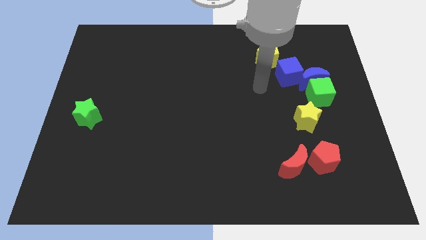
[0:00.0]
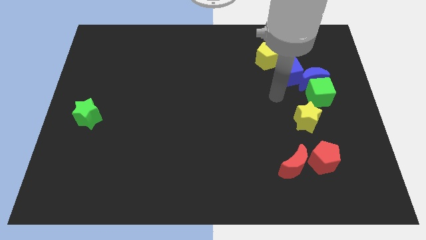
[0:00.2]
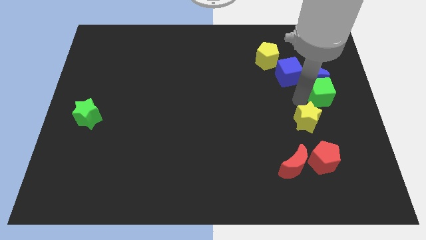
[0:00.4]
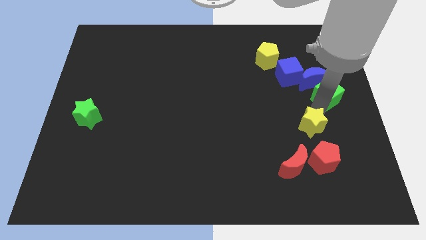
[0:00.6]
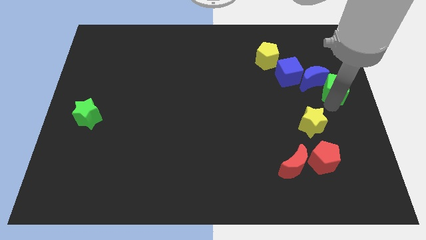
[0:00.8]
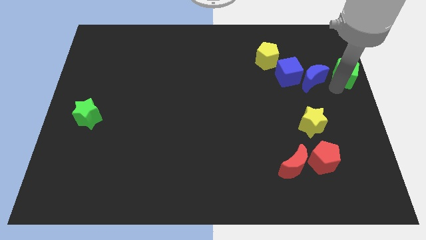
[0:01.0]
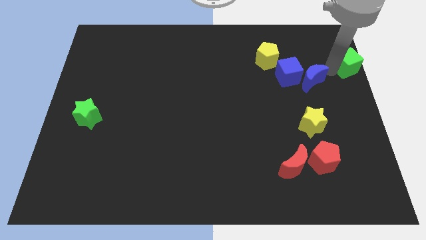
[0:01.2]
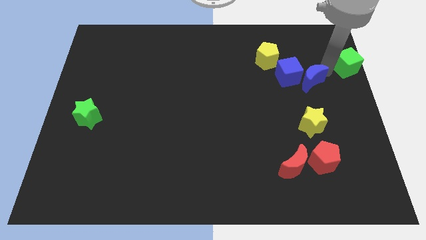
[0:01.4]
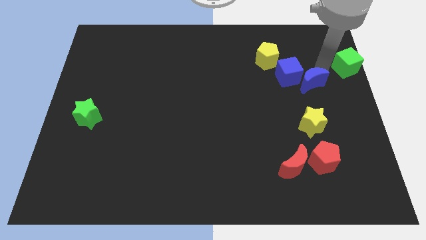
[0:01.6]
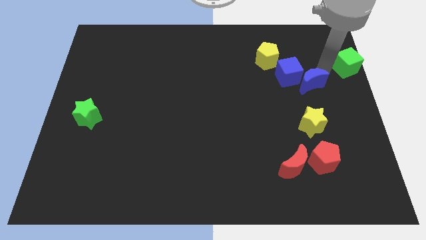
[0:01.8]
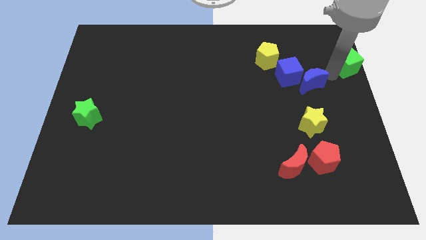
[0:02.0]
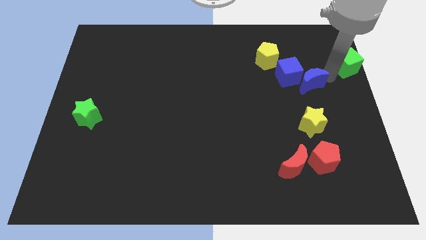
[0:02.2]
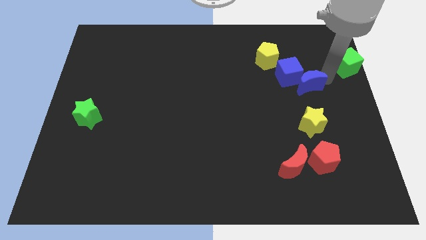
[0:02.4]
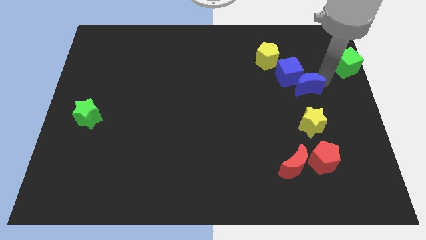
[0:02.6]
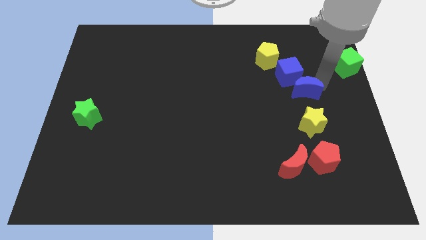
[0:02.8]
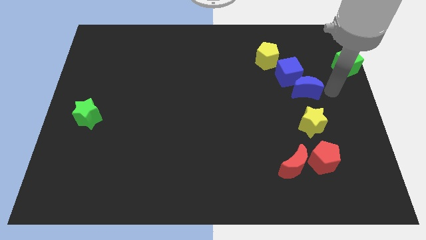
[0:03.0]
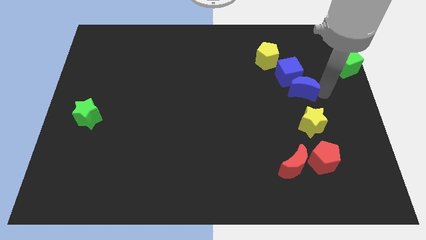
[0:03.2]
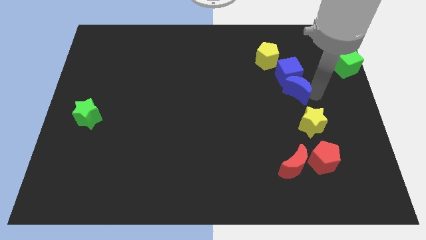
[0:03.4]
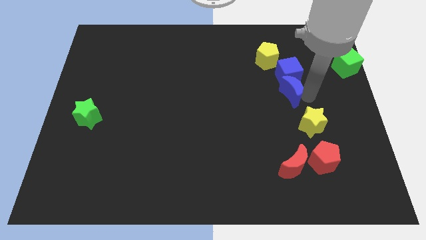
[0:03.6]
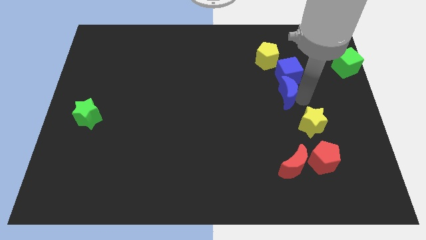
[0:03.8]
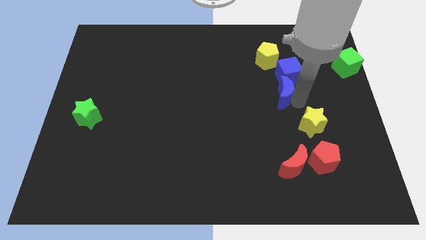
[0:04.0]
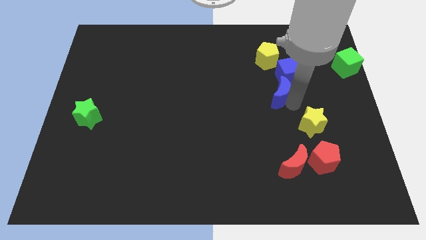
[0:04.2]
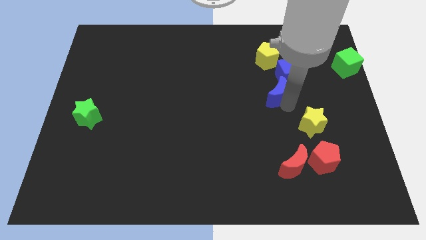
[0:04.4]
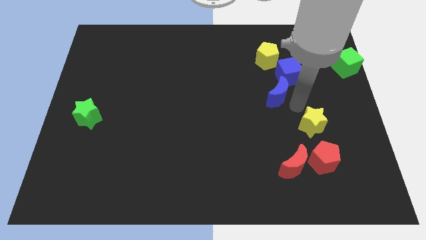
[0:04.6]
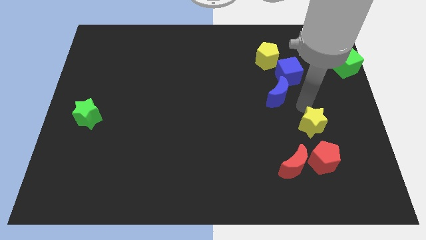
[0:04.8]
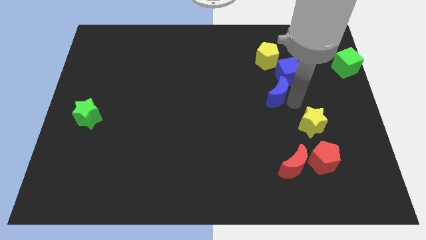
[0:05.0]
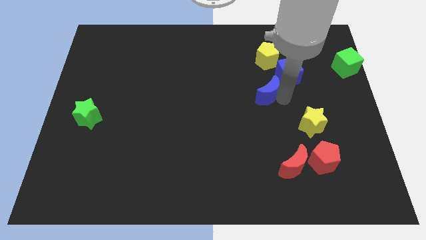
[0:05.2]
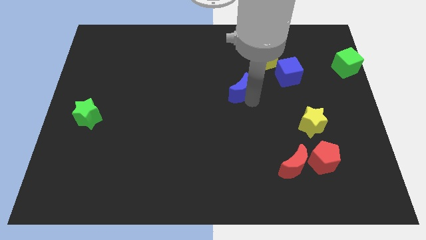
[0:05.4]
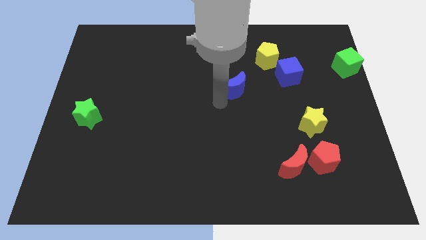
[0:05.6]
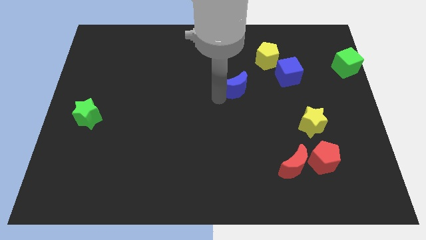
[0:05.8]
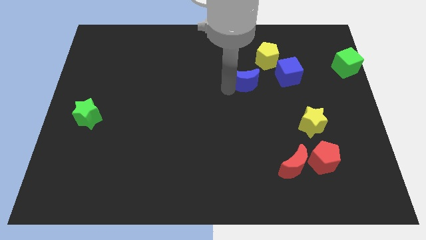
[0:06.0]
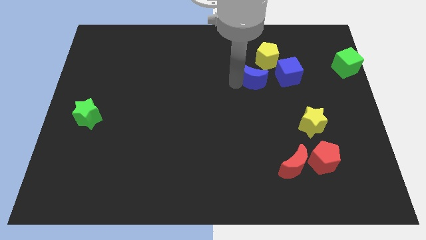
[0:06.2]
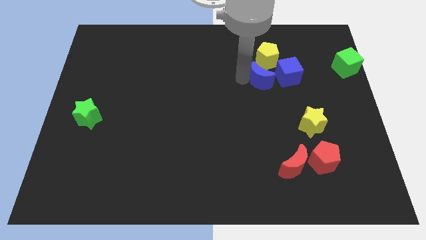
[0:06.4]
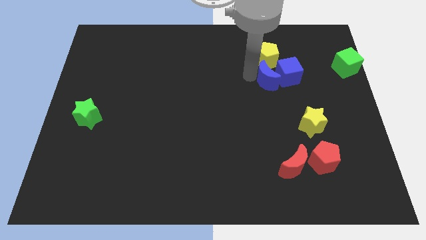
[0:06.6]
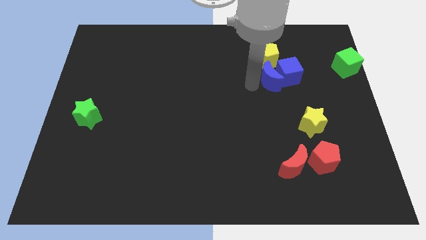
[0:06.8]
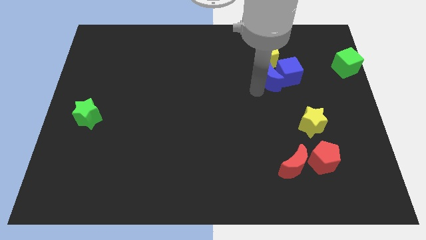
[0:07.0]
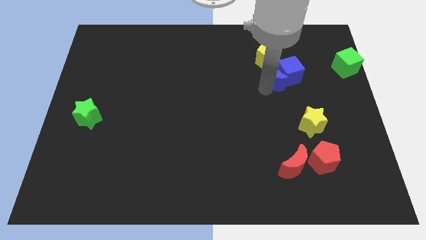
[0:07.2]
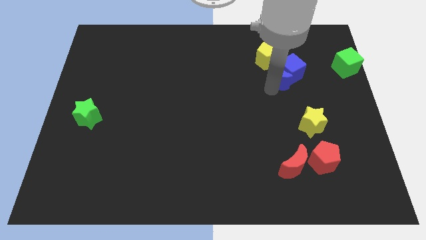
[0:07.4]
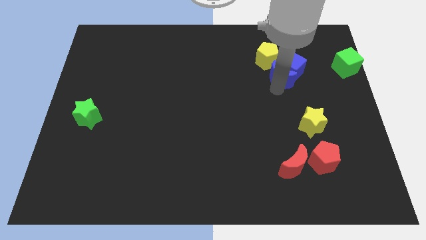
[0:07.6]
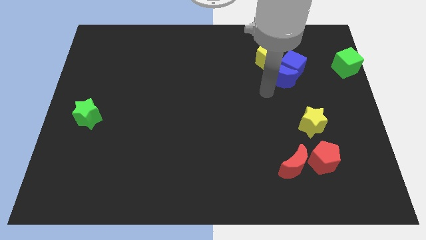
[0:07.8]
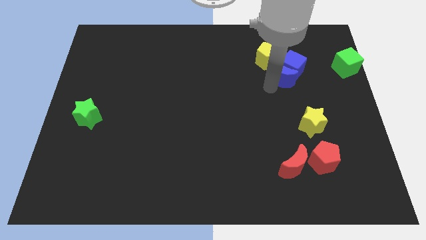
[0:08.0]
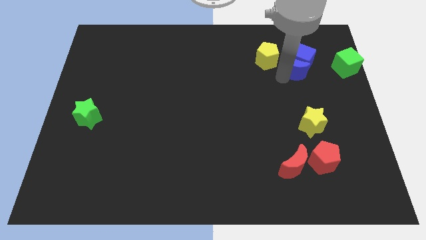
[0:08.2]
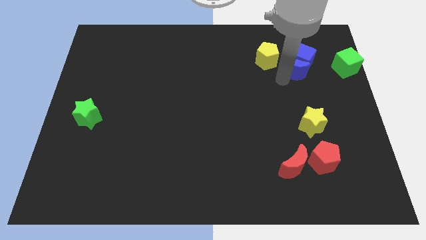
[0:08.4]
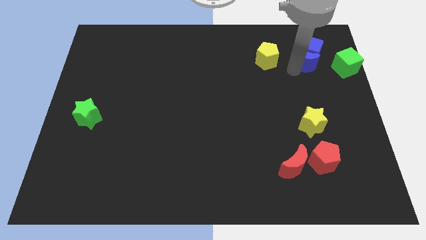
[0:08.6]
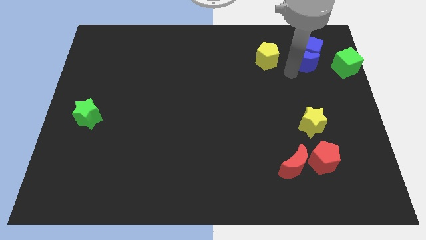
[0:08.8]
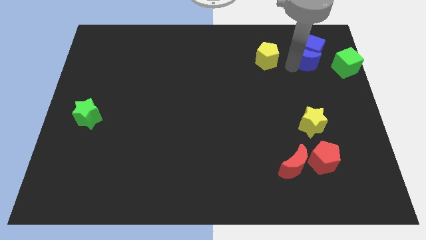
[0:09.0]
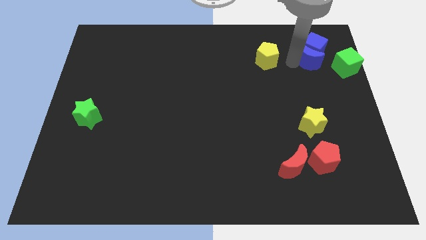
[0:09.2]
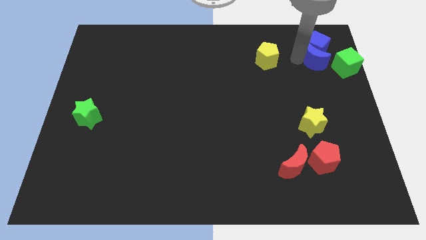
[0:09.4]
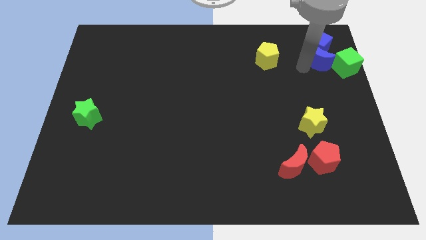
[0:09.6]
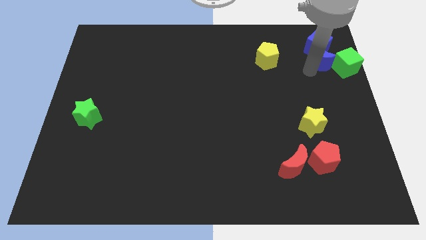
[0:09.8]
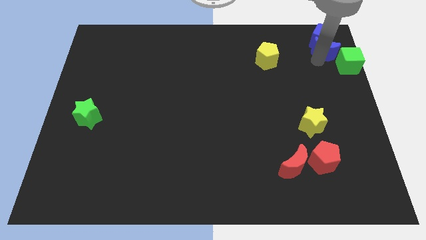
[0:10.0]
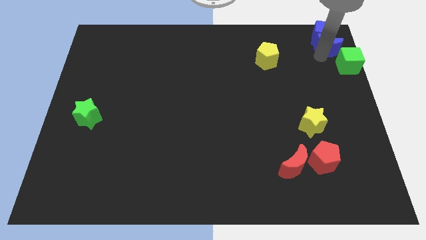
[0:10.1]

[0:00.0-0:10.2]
slide the blue moon to the top right of the board

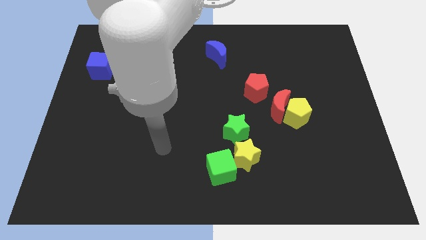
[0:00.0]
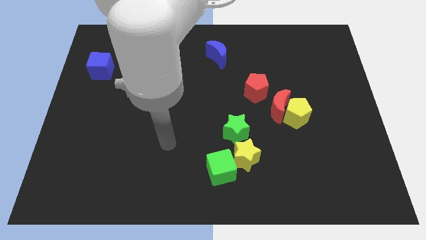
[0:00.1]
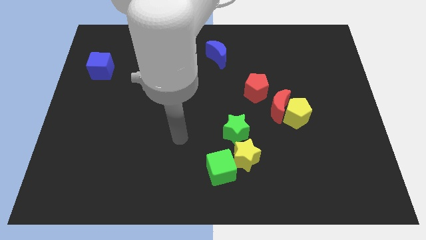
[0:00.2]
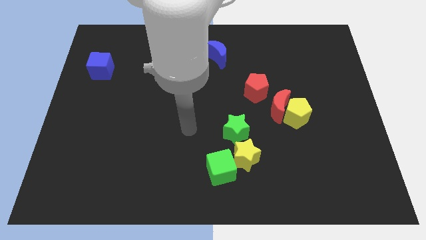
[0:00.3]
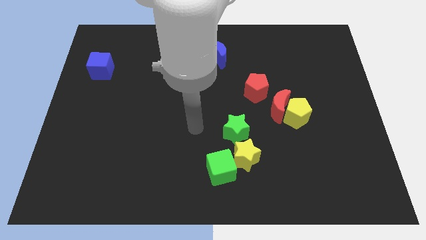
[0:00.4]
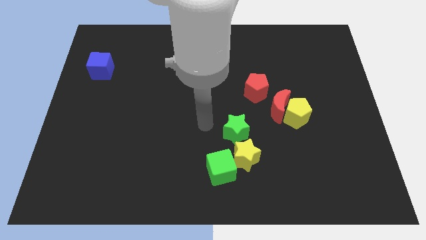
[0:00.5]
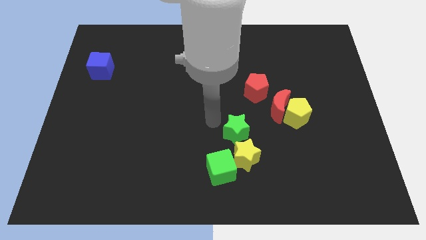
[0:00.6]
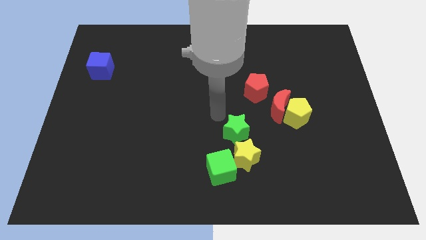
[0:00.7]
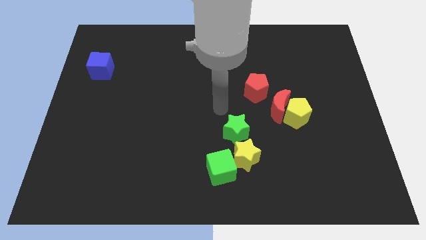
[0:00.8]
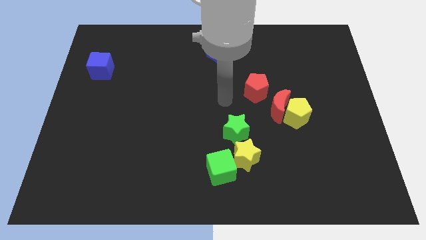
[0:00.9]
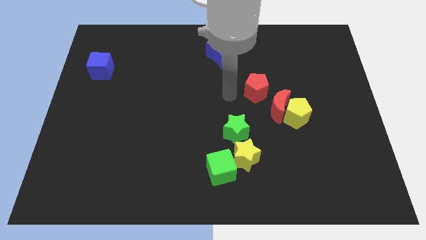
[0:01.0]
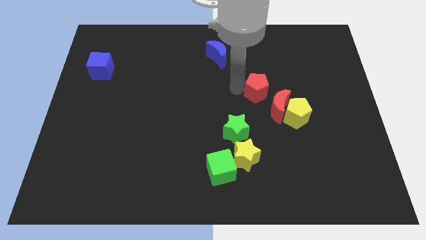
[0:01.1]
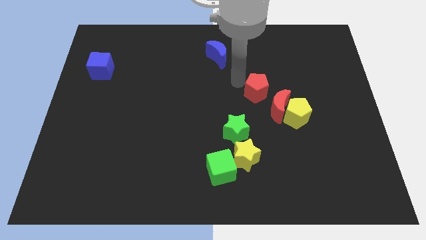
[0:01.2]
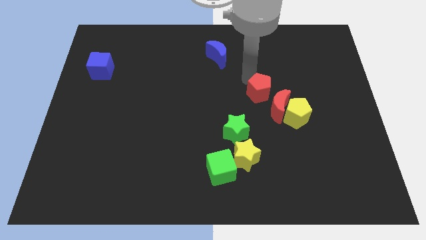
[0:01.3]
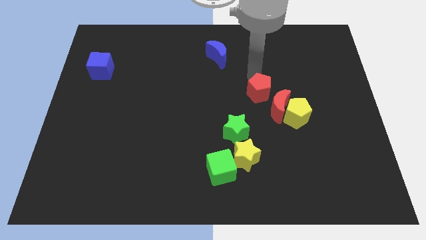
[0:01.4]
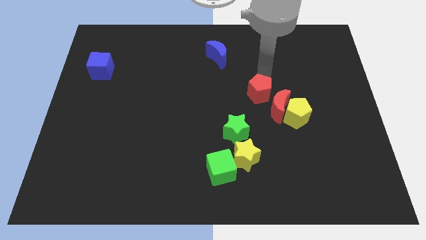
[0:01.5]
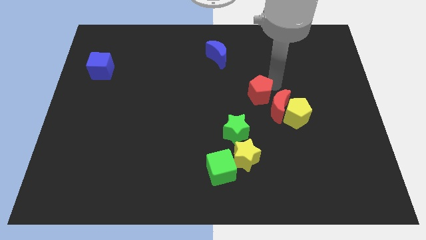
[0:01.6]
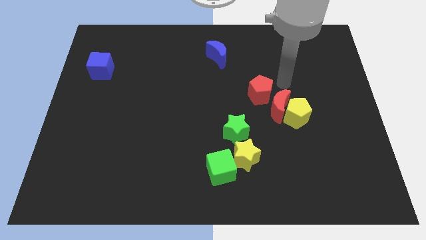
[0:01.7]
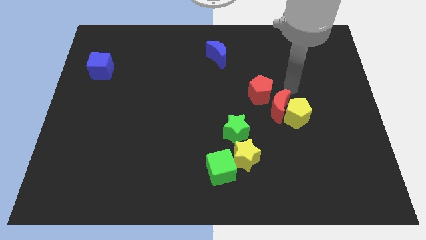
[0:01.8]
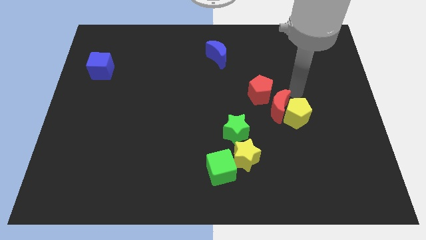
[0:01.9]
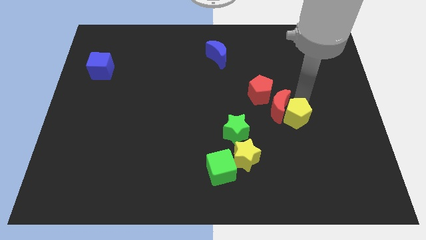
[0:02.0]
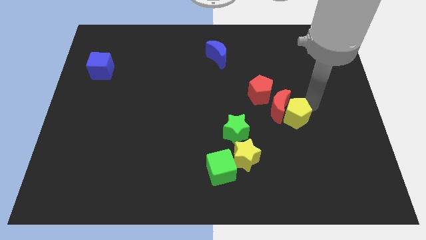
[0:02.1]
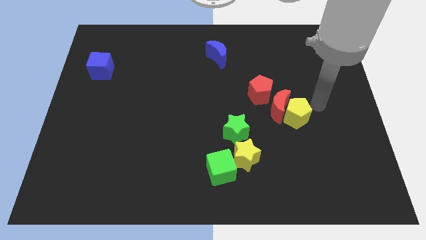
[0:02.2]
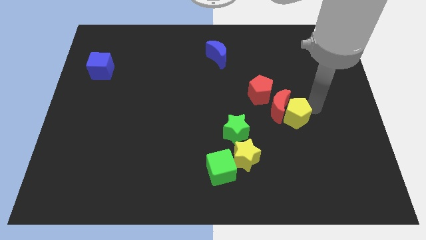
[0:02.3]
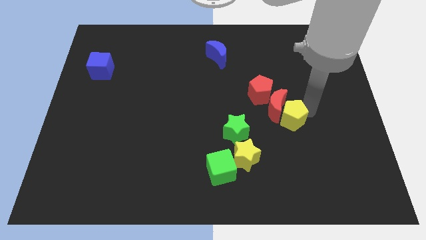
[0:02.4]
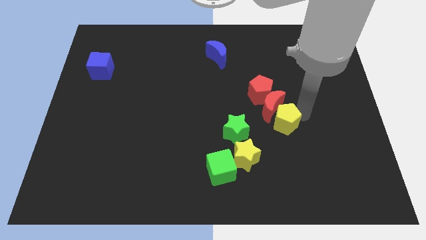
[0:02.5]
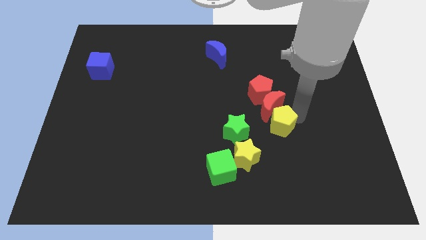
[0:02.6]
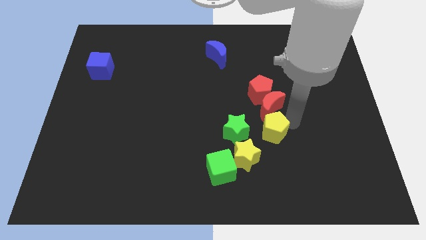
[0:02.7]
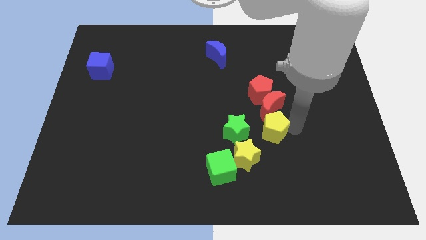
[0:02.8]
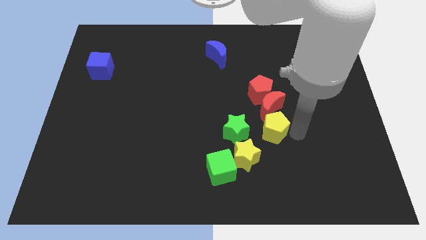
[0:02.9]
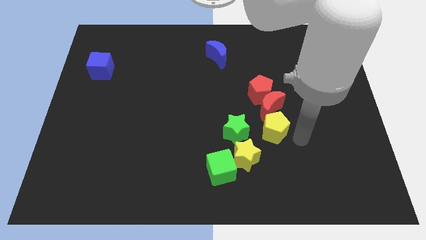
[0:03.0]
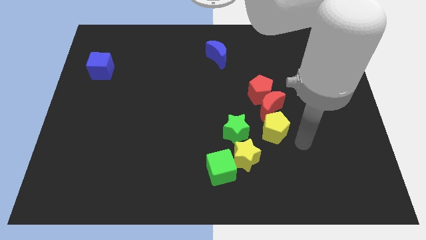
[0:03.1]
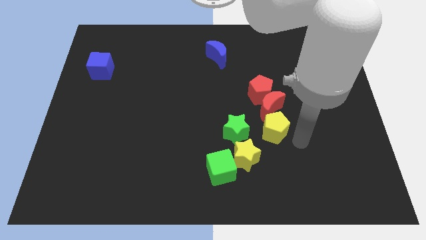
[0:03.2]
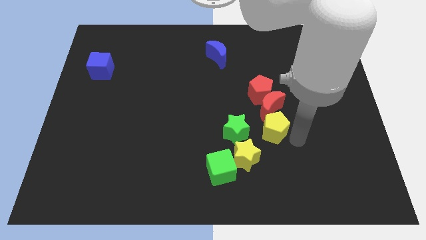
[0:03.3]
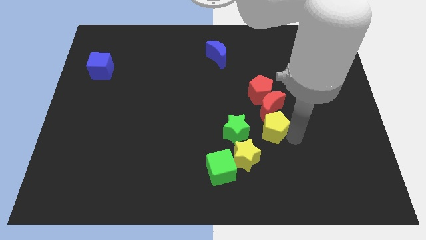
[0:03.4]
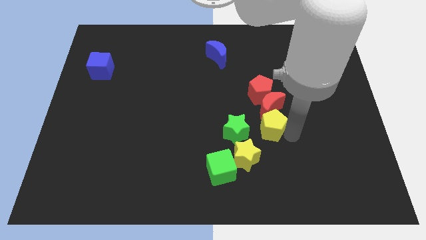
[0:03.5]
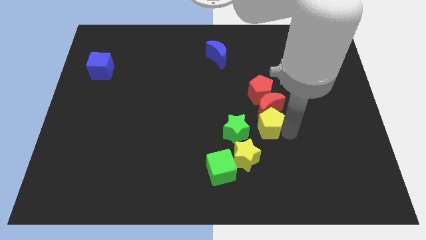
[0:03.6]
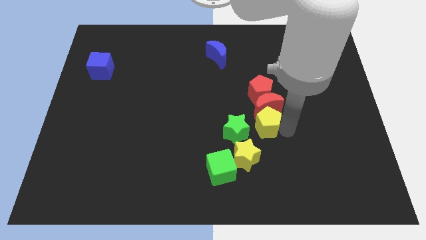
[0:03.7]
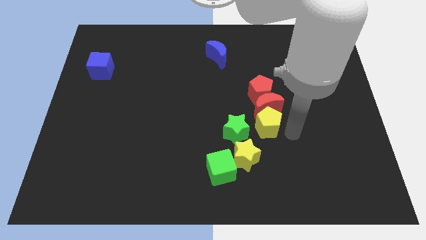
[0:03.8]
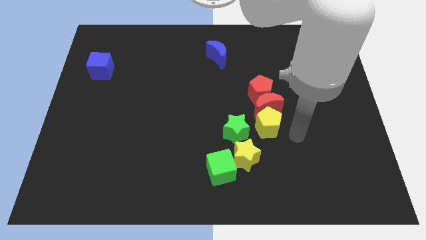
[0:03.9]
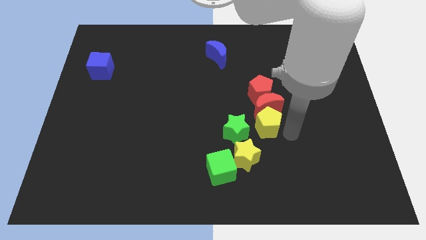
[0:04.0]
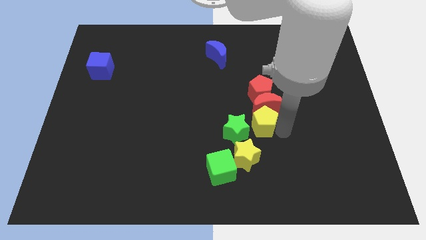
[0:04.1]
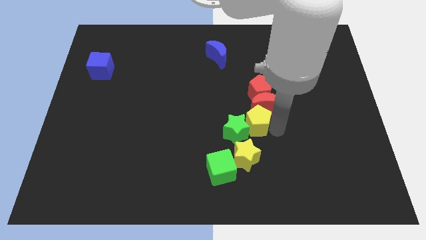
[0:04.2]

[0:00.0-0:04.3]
slide the yellow pentagon to the center of the board
